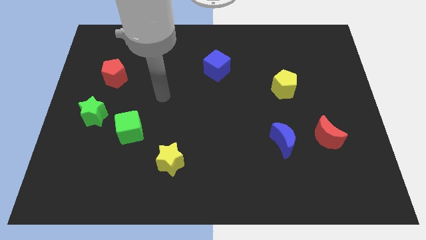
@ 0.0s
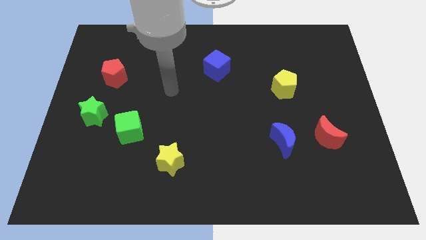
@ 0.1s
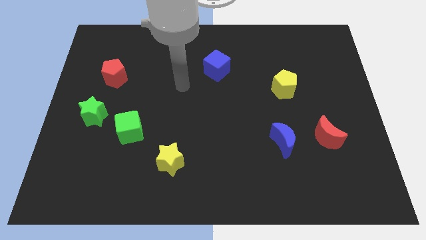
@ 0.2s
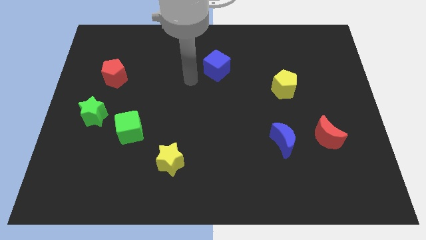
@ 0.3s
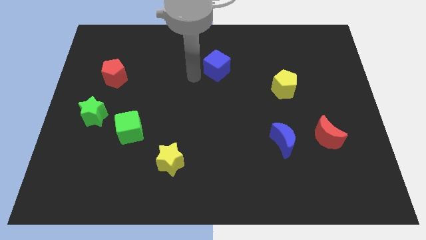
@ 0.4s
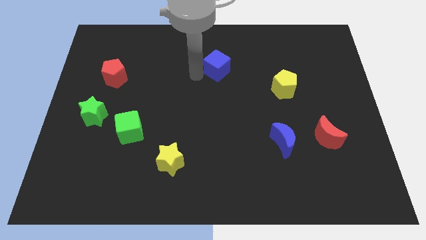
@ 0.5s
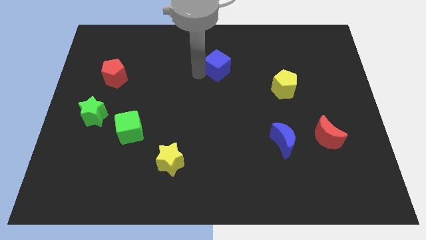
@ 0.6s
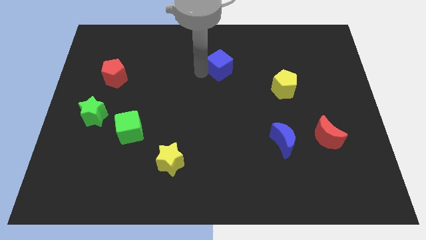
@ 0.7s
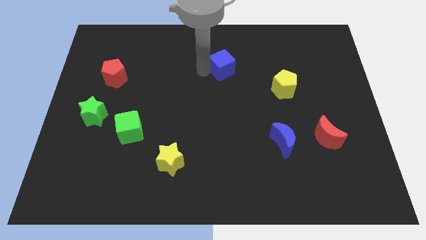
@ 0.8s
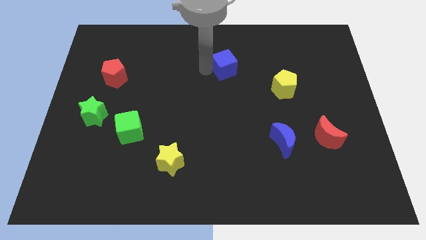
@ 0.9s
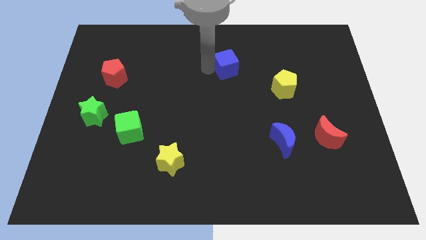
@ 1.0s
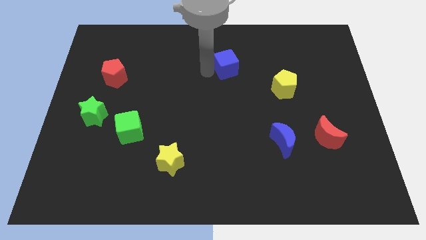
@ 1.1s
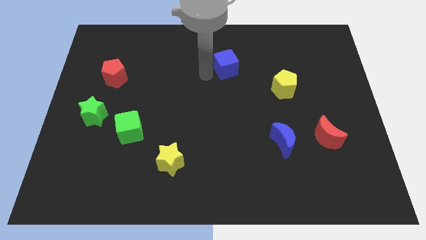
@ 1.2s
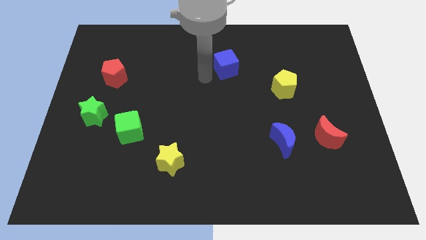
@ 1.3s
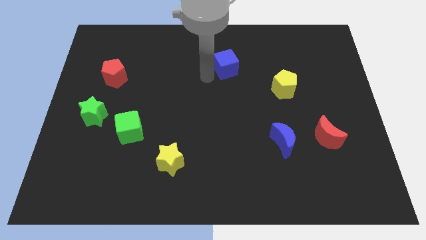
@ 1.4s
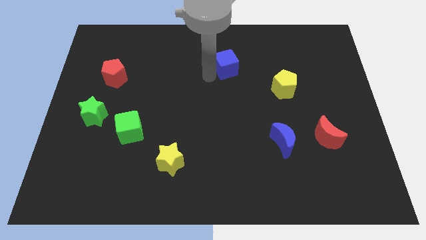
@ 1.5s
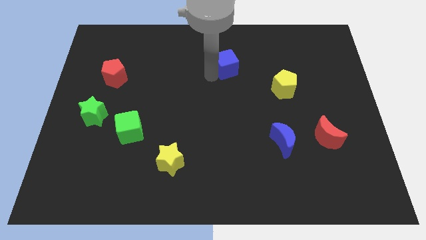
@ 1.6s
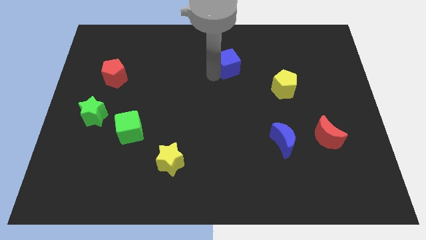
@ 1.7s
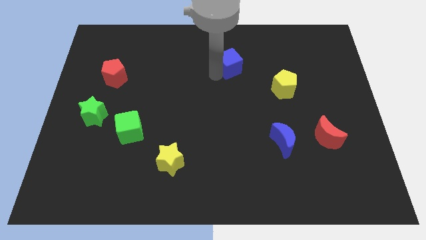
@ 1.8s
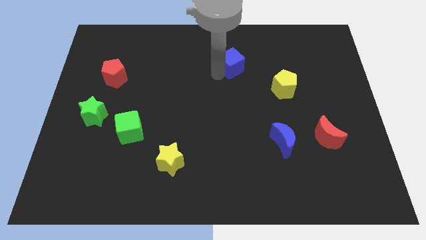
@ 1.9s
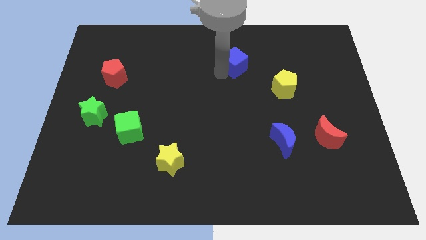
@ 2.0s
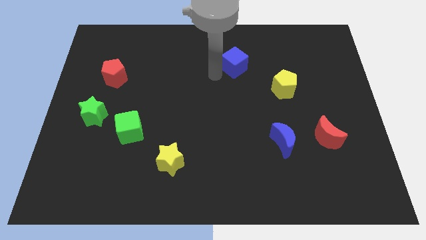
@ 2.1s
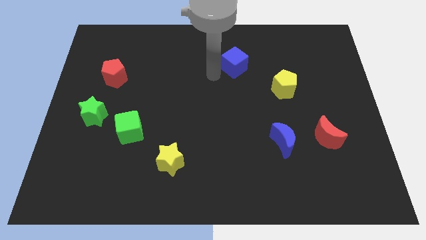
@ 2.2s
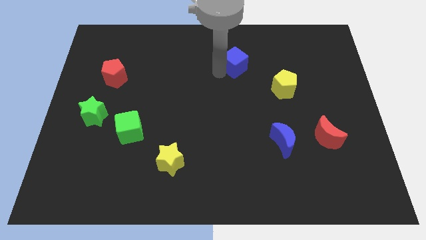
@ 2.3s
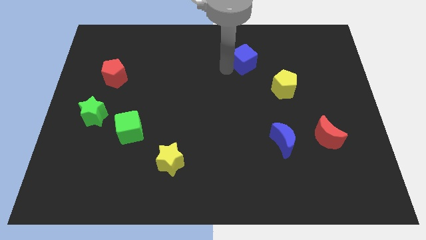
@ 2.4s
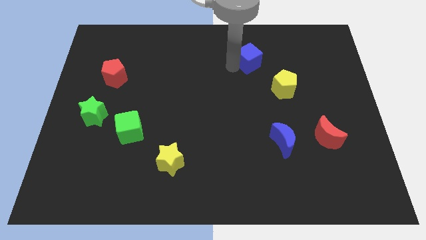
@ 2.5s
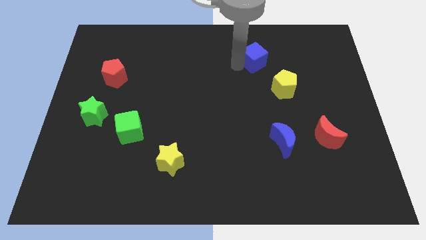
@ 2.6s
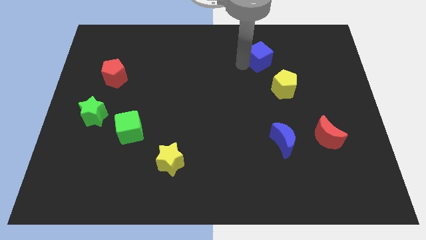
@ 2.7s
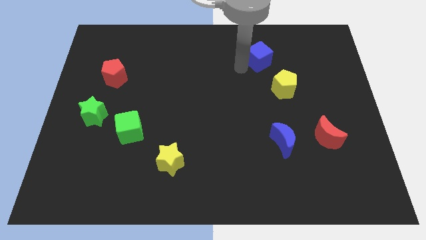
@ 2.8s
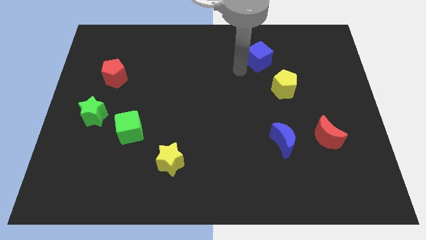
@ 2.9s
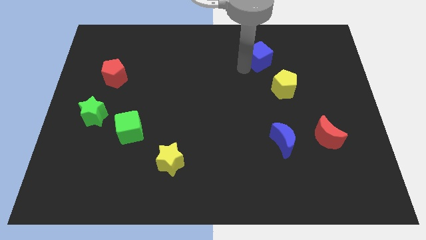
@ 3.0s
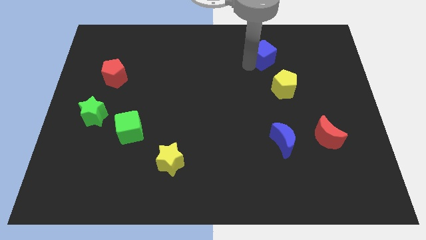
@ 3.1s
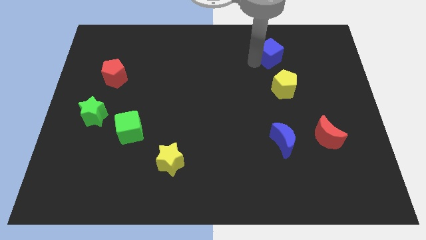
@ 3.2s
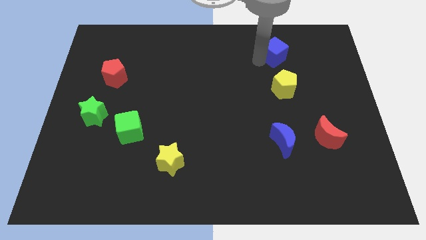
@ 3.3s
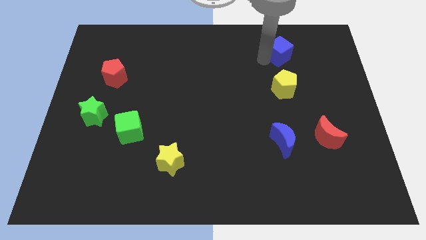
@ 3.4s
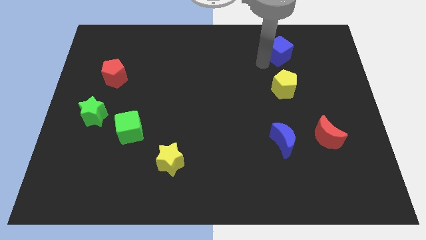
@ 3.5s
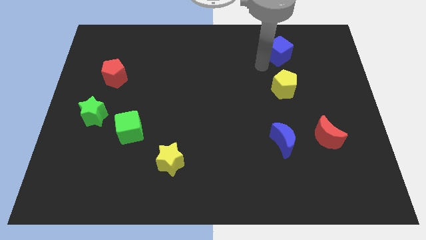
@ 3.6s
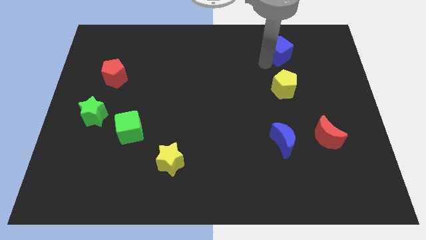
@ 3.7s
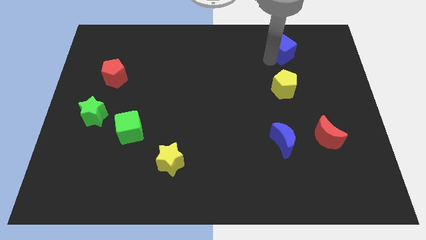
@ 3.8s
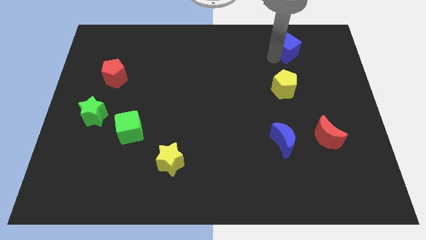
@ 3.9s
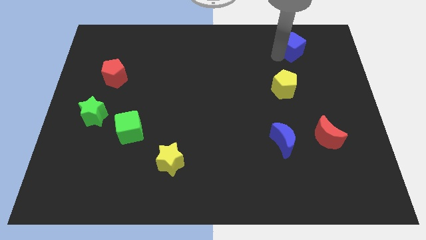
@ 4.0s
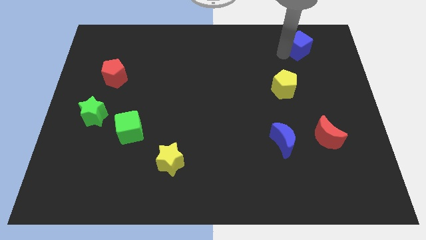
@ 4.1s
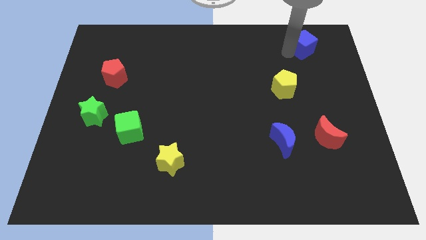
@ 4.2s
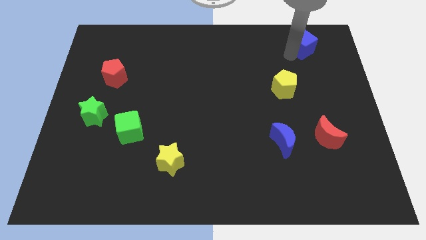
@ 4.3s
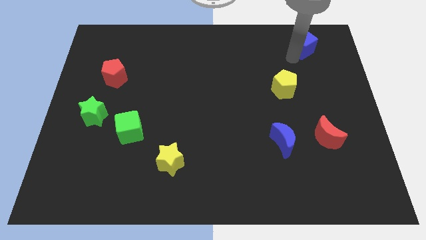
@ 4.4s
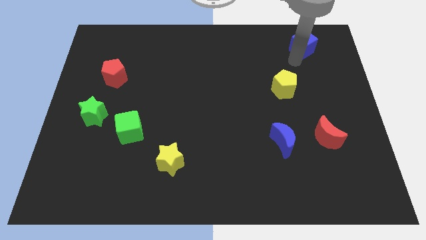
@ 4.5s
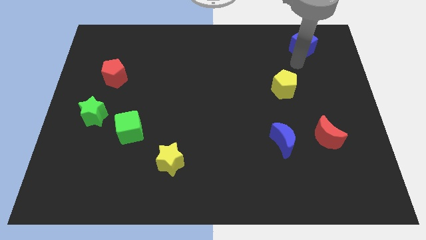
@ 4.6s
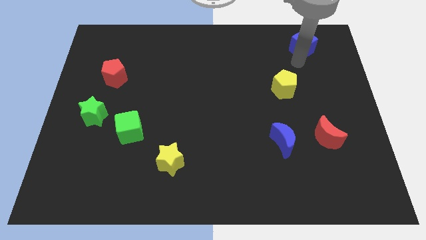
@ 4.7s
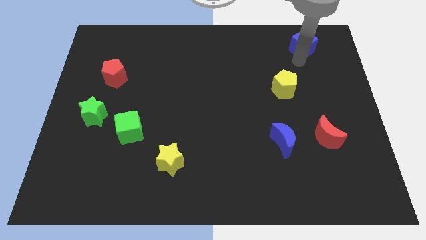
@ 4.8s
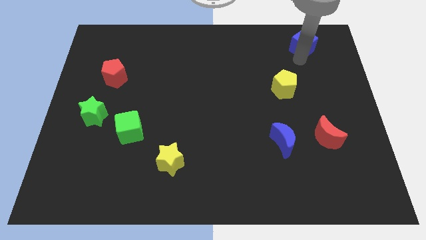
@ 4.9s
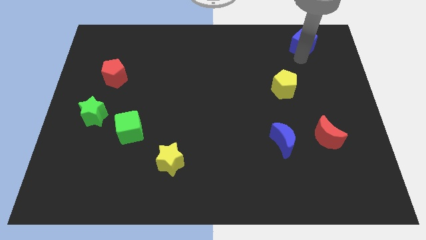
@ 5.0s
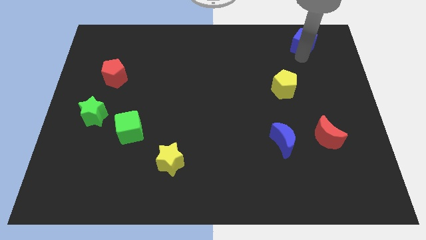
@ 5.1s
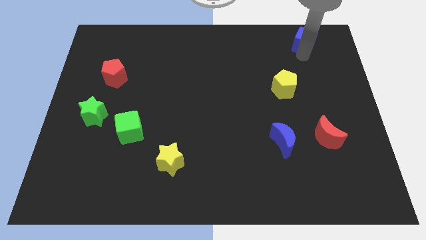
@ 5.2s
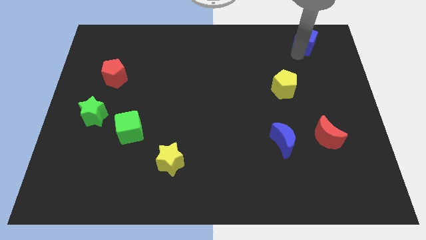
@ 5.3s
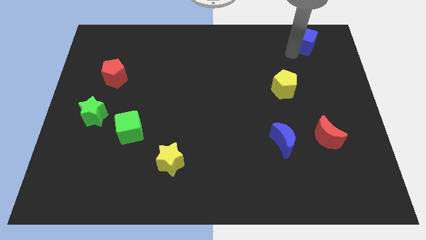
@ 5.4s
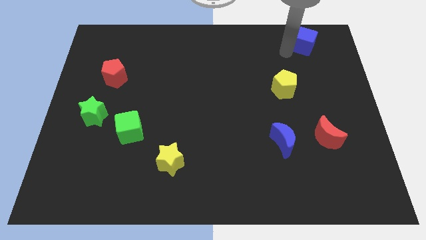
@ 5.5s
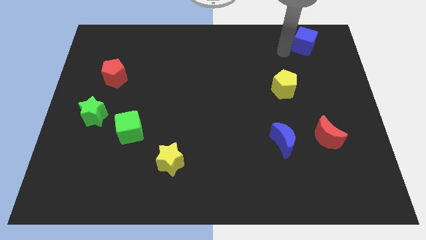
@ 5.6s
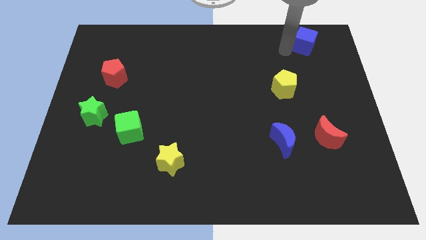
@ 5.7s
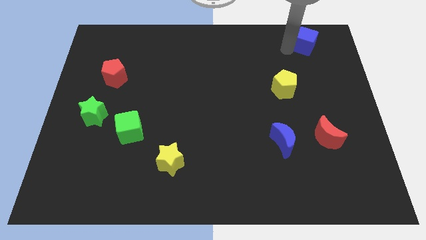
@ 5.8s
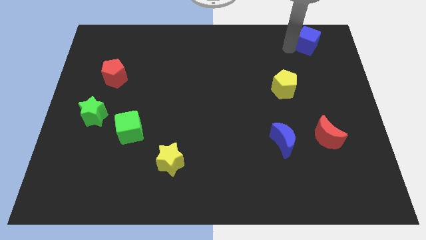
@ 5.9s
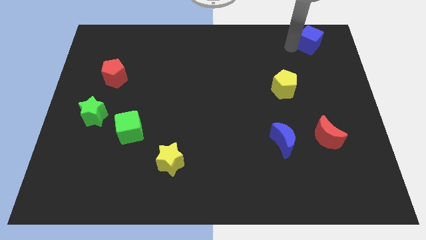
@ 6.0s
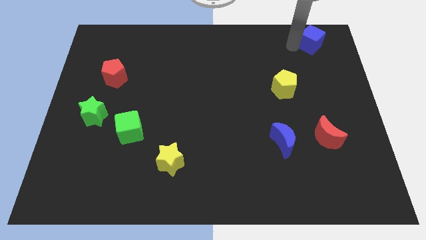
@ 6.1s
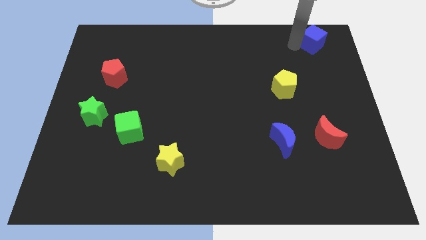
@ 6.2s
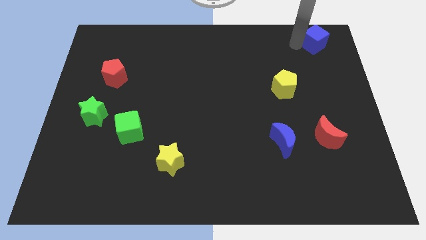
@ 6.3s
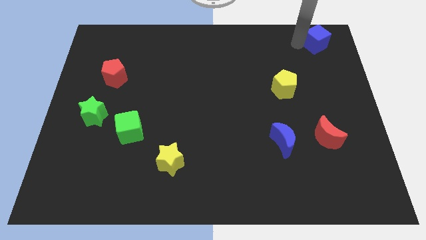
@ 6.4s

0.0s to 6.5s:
slide the blue cube to the upper right corner
